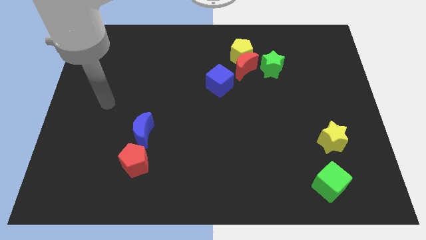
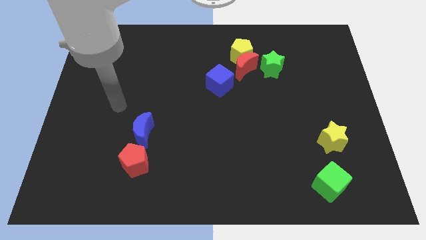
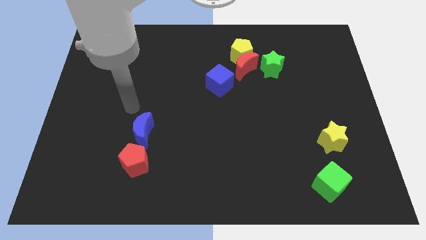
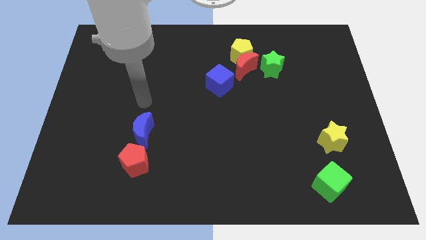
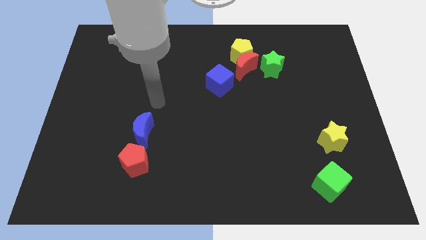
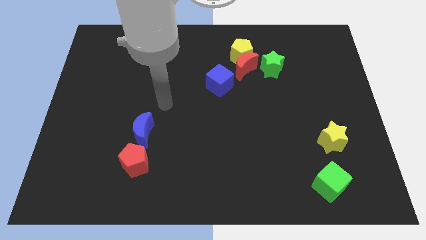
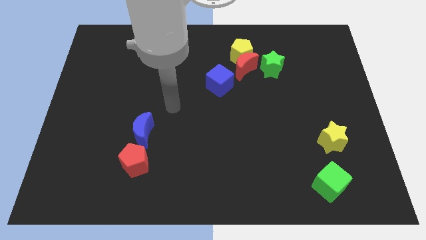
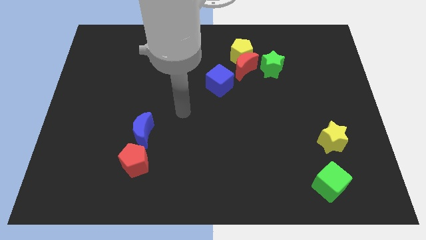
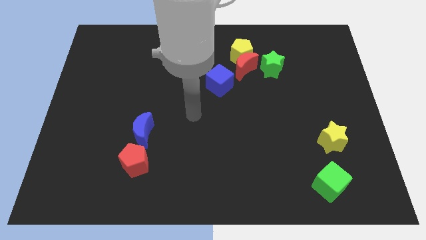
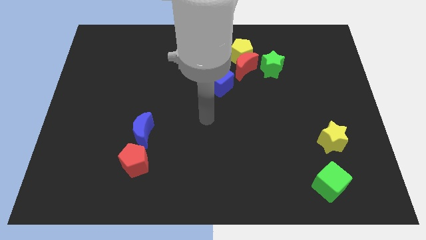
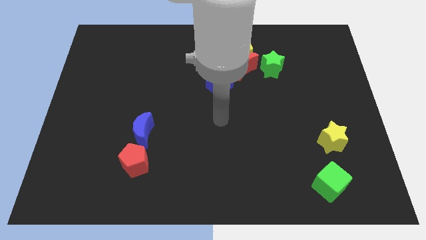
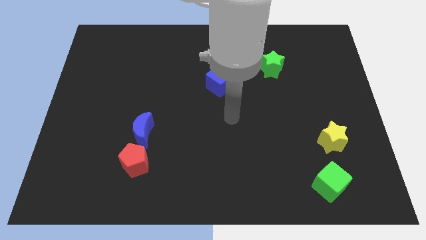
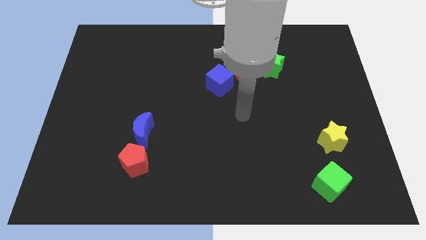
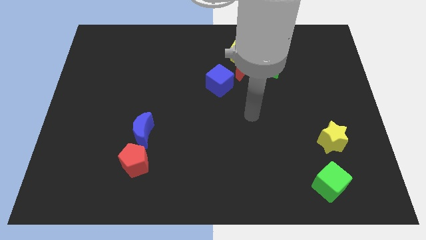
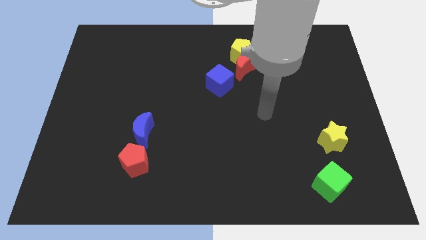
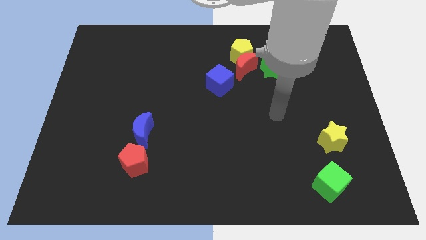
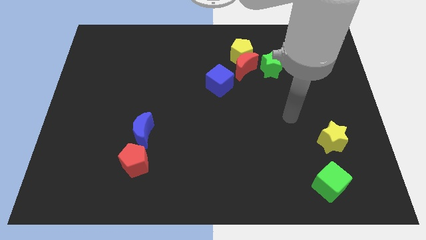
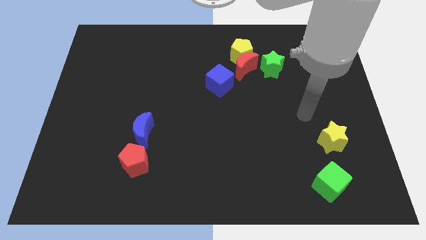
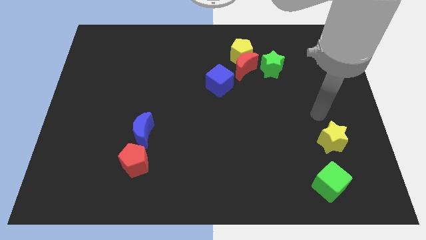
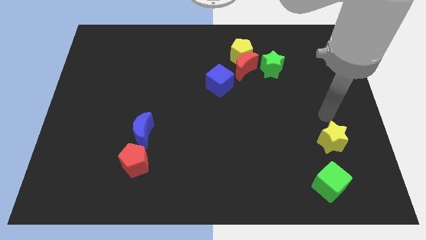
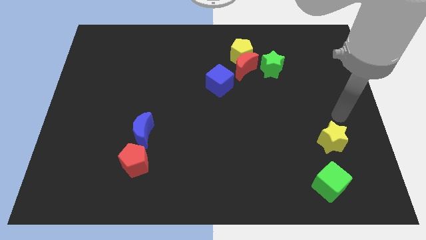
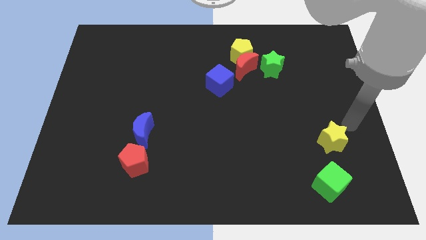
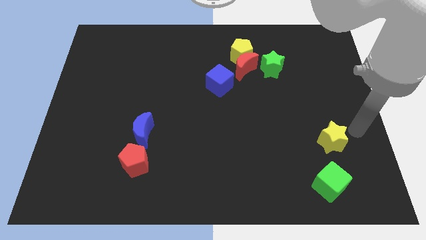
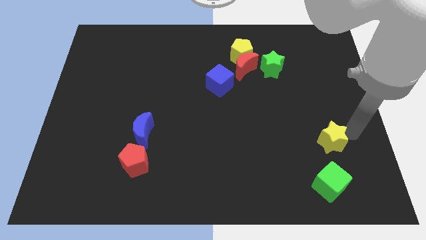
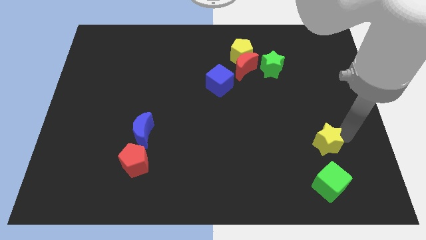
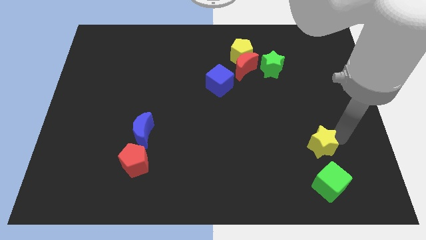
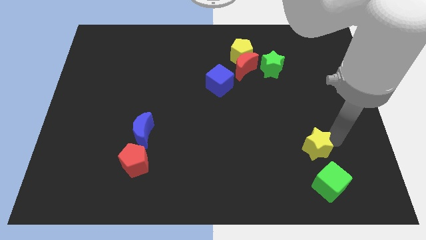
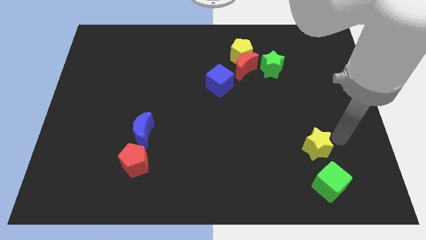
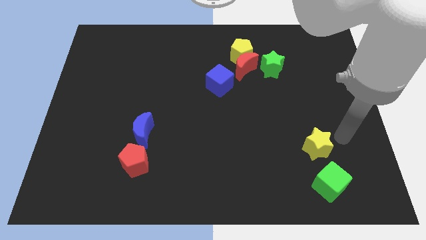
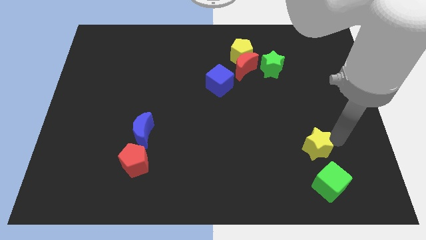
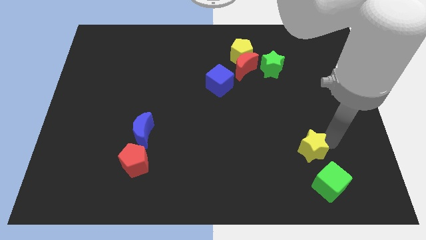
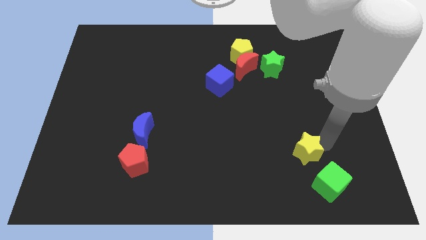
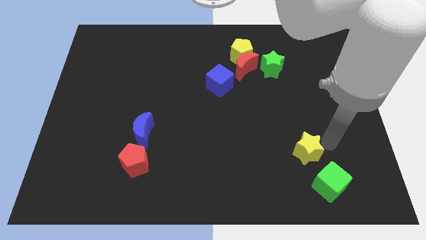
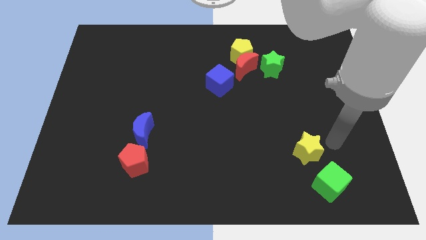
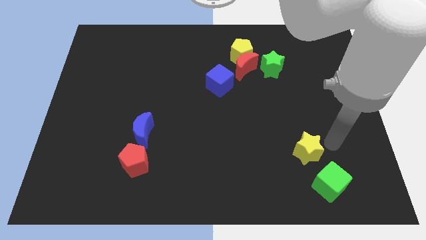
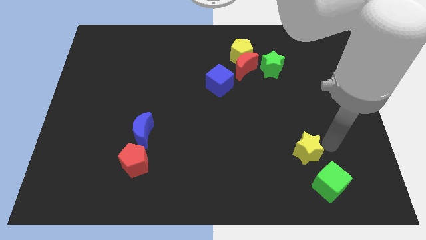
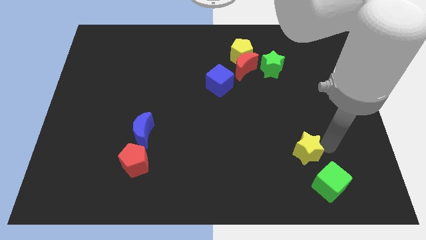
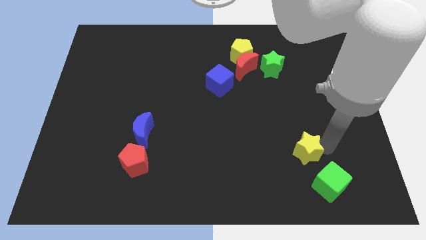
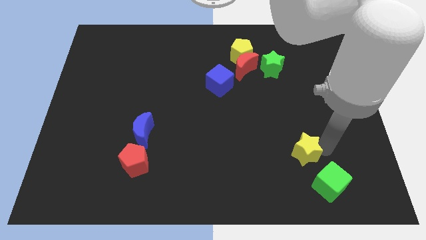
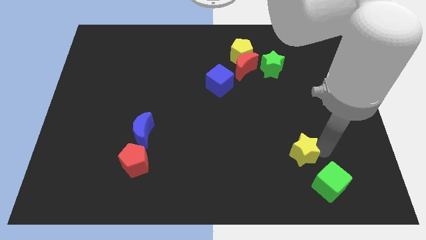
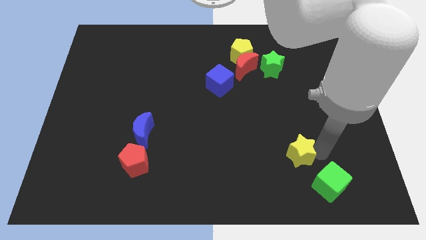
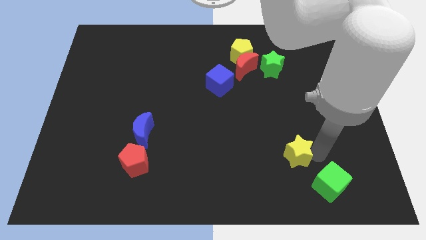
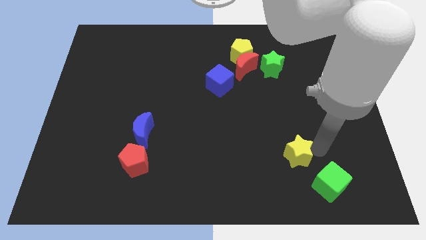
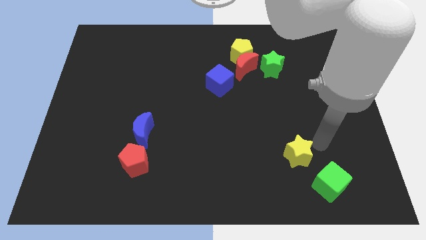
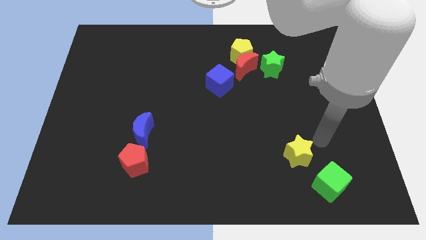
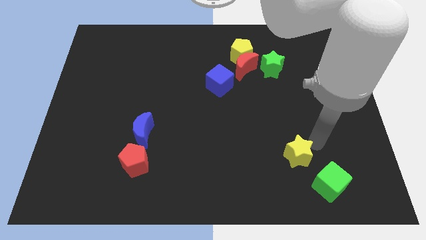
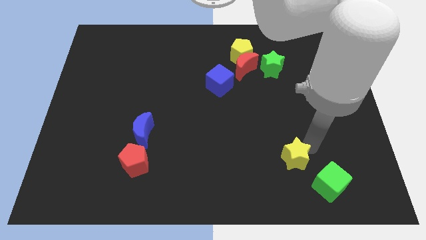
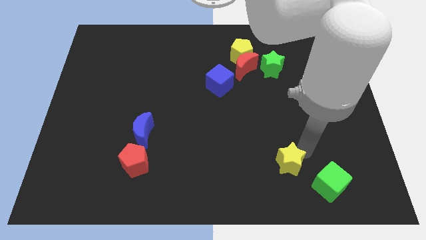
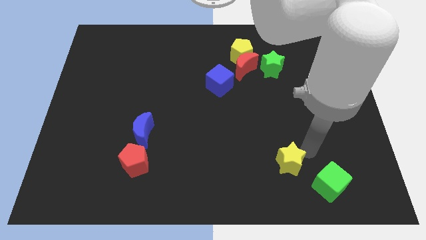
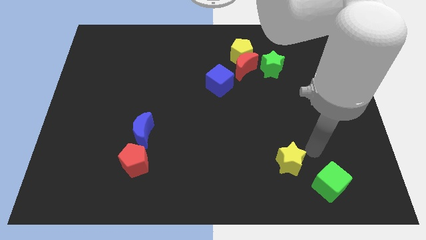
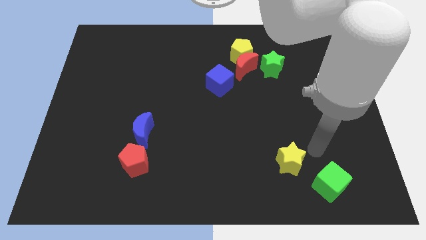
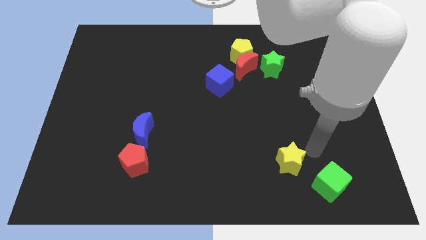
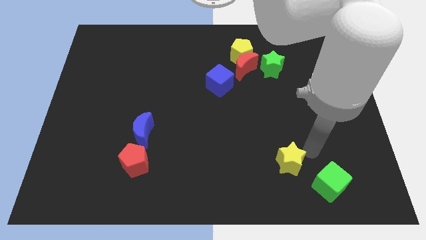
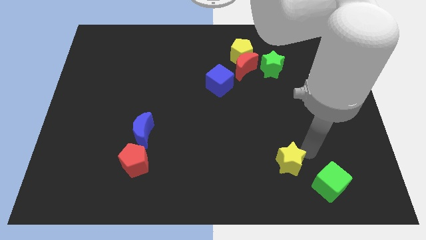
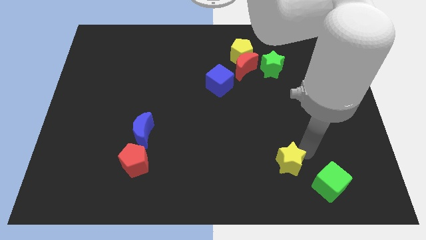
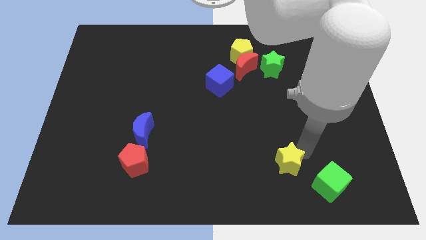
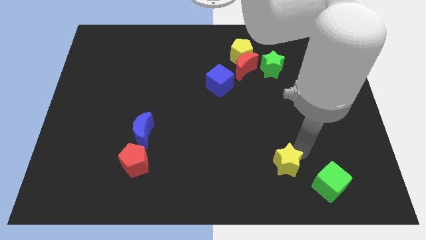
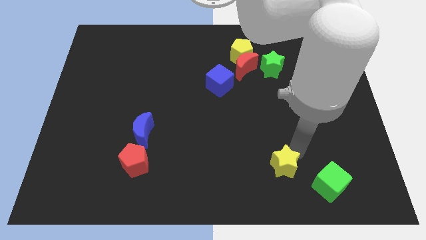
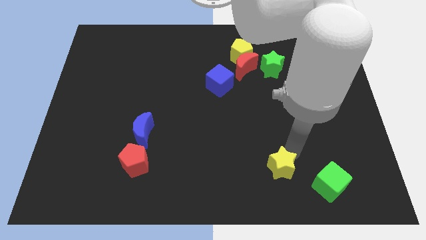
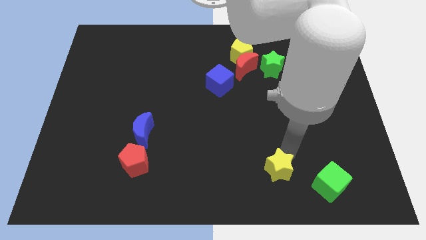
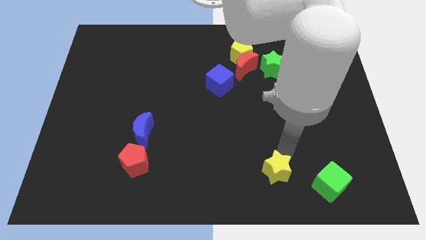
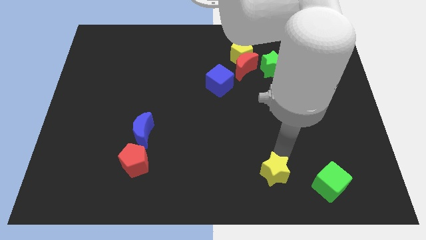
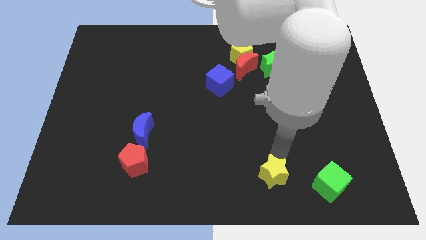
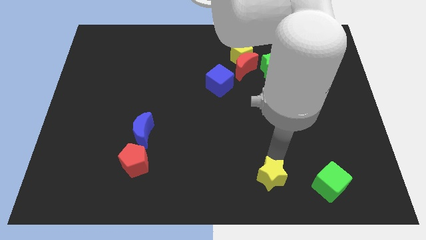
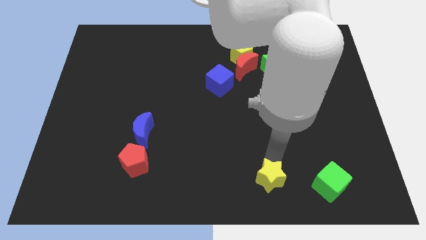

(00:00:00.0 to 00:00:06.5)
slide the yellow star to the bottom side
